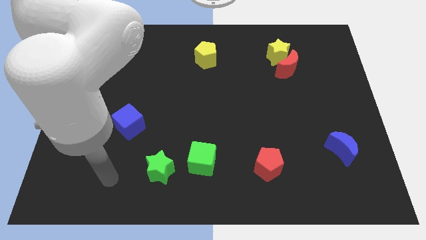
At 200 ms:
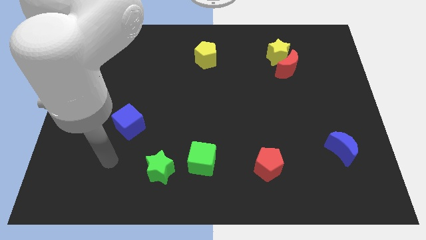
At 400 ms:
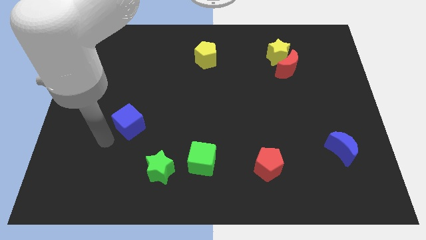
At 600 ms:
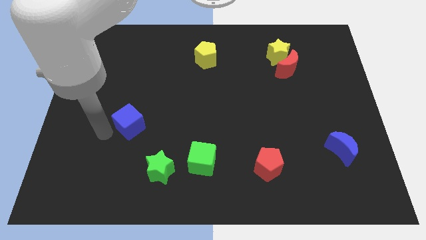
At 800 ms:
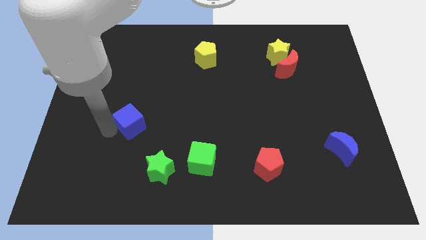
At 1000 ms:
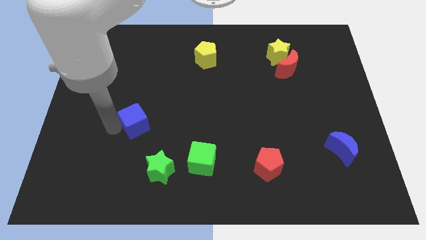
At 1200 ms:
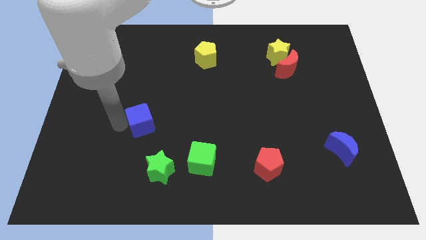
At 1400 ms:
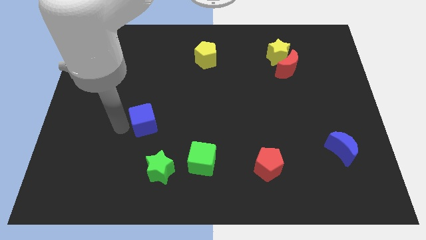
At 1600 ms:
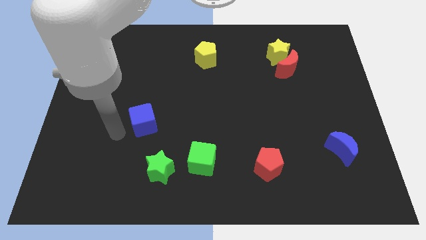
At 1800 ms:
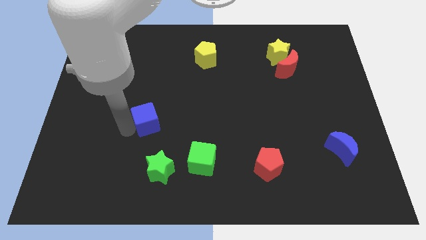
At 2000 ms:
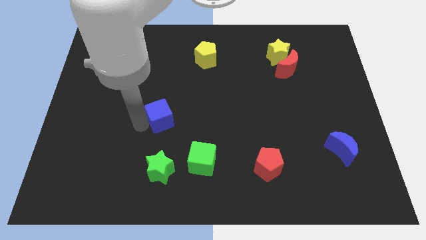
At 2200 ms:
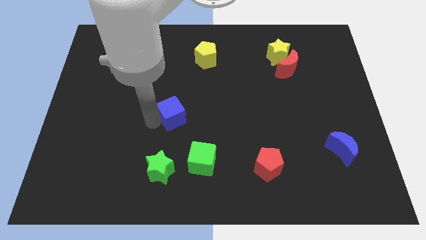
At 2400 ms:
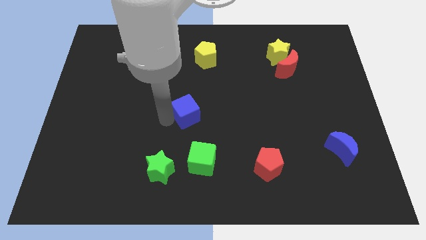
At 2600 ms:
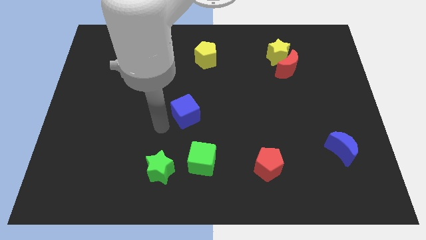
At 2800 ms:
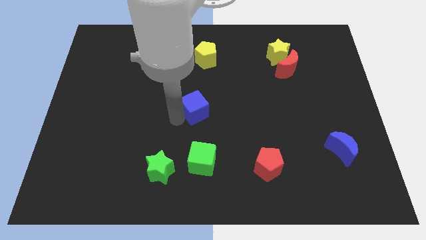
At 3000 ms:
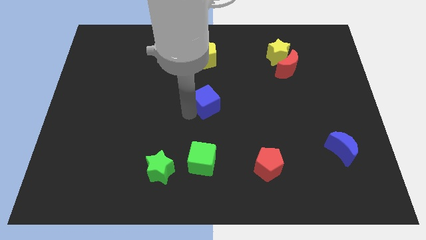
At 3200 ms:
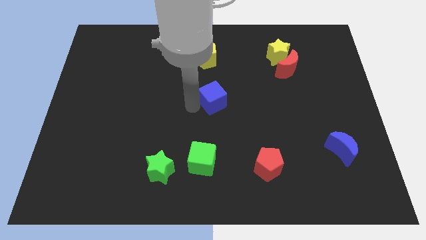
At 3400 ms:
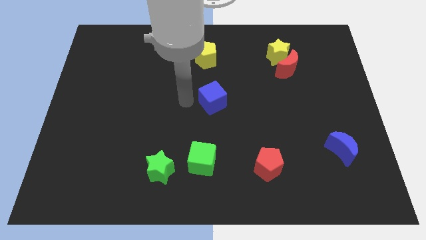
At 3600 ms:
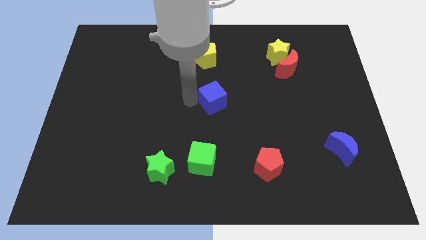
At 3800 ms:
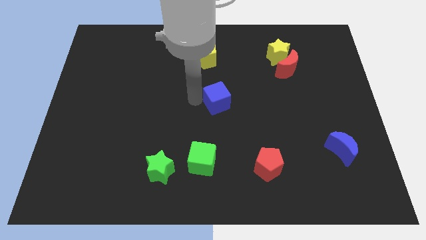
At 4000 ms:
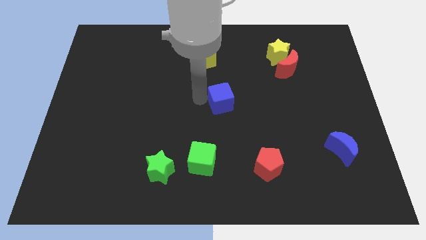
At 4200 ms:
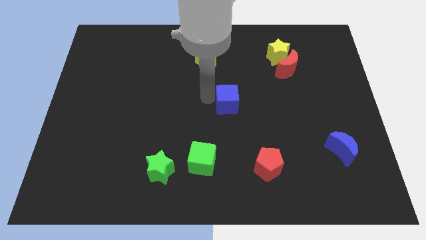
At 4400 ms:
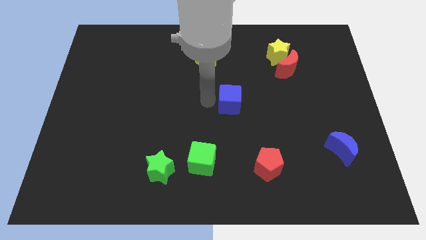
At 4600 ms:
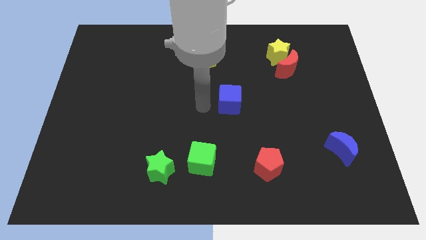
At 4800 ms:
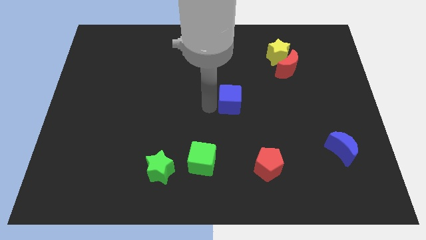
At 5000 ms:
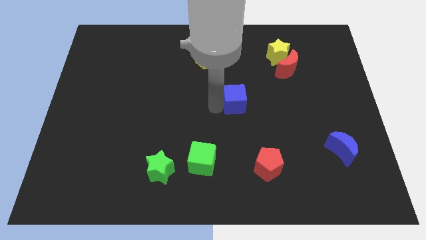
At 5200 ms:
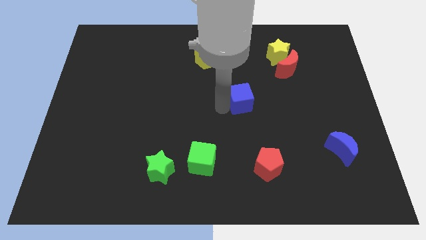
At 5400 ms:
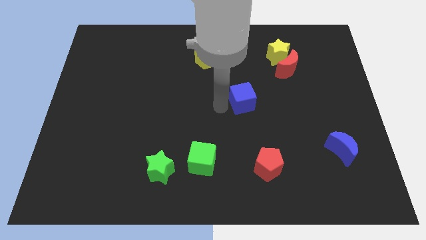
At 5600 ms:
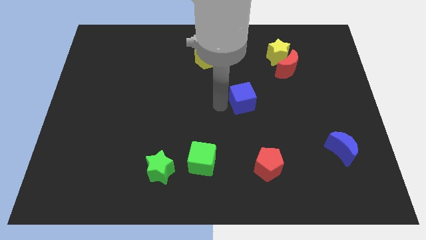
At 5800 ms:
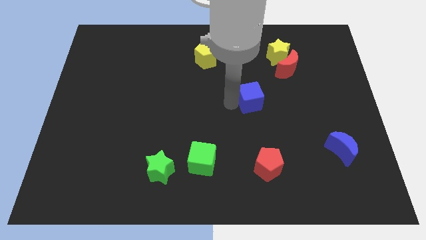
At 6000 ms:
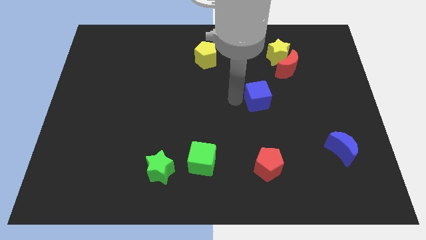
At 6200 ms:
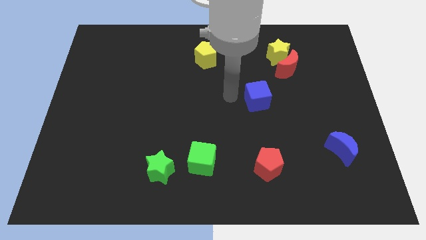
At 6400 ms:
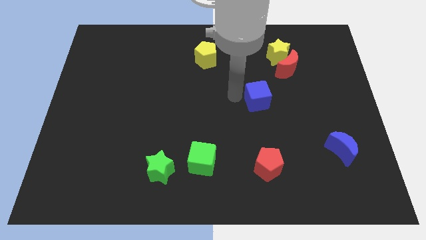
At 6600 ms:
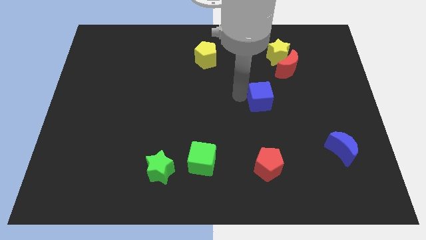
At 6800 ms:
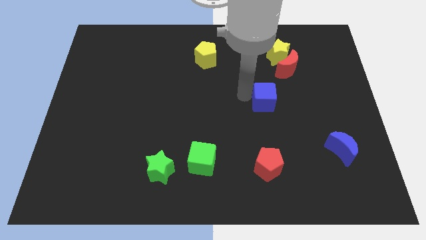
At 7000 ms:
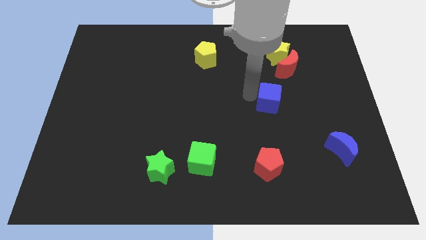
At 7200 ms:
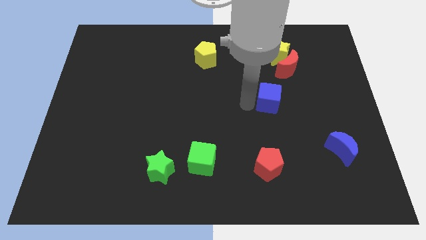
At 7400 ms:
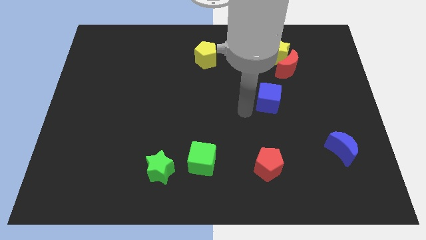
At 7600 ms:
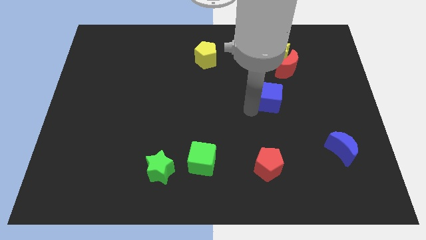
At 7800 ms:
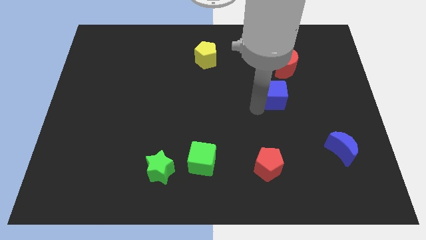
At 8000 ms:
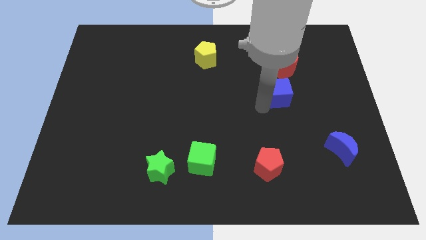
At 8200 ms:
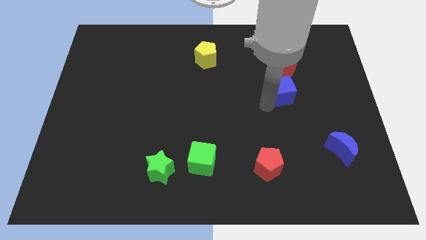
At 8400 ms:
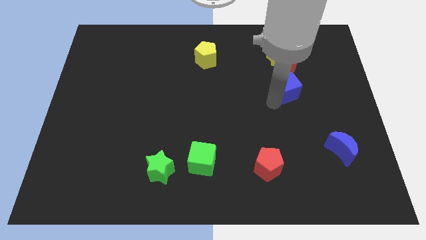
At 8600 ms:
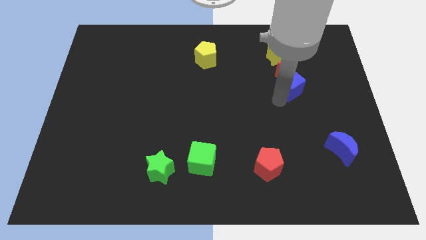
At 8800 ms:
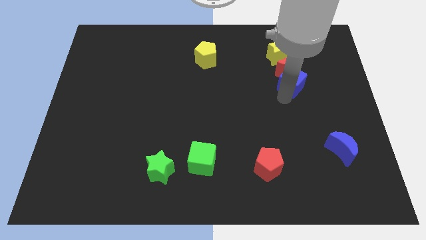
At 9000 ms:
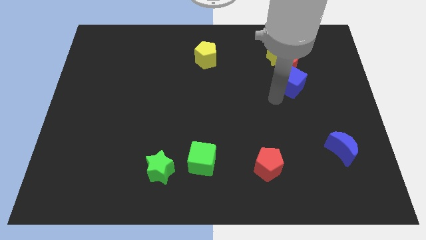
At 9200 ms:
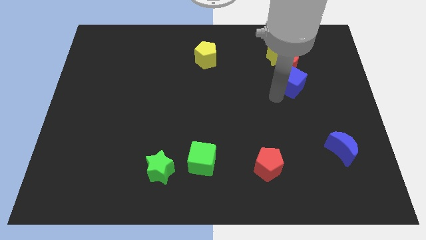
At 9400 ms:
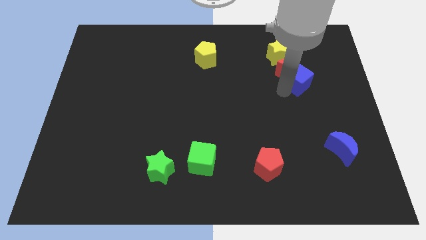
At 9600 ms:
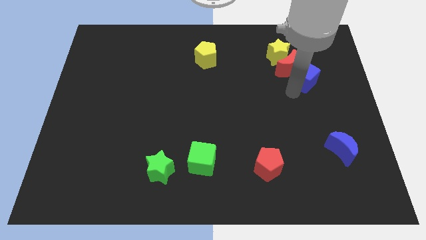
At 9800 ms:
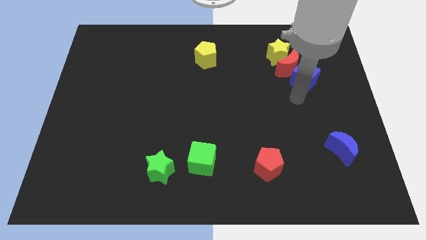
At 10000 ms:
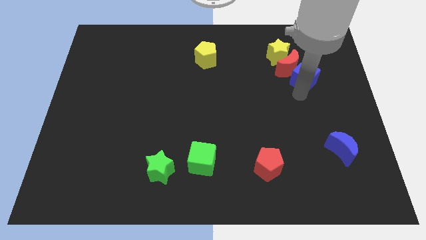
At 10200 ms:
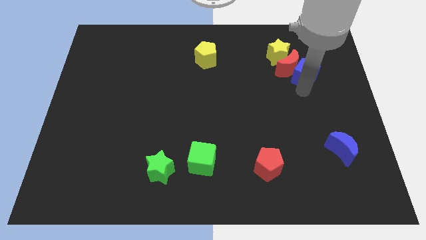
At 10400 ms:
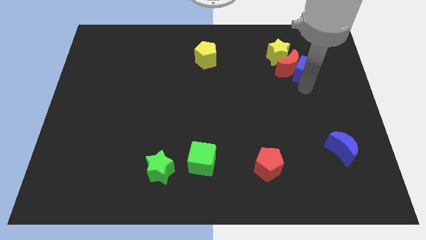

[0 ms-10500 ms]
push the blue cube to the top right of the red moon

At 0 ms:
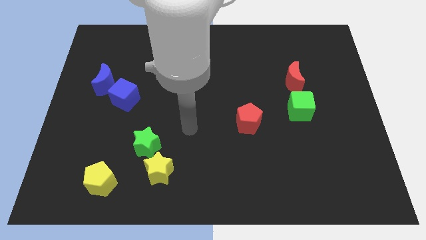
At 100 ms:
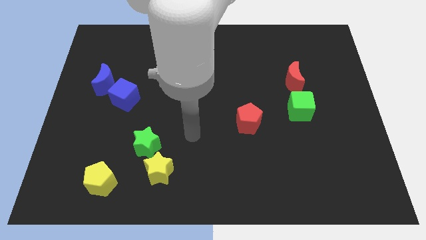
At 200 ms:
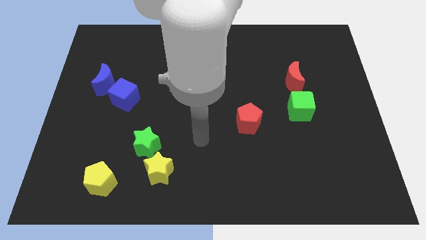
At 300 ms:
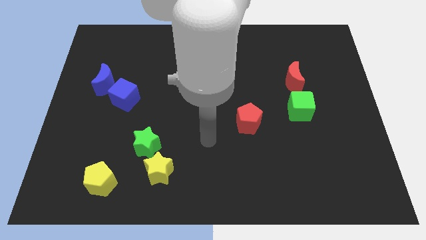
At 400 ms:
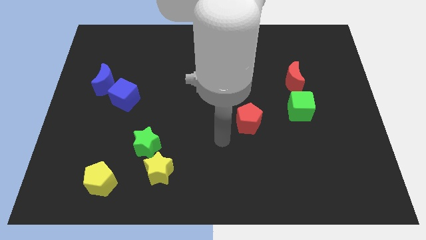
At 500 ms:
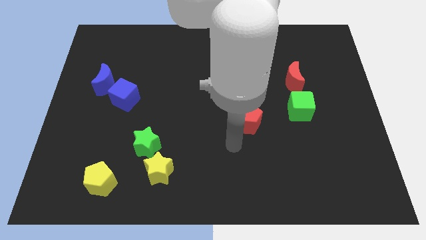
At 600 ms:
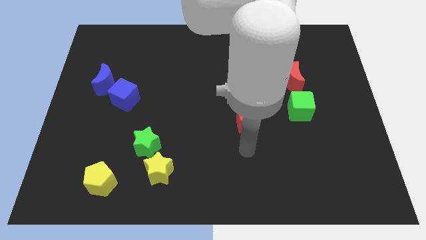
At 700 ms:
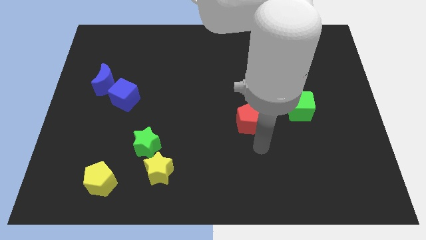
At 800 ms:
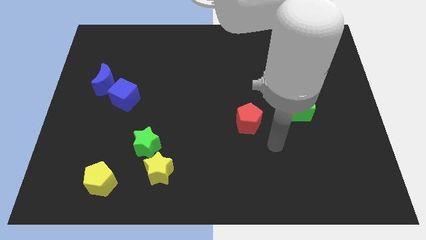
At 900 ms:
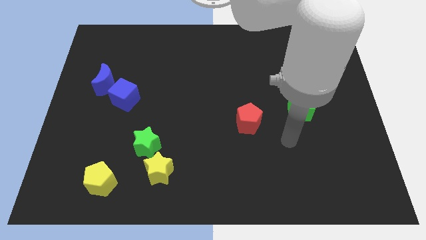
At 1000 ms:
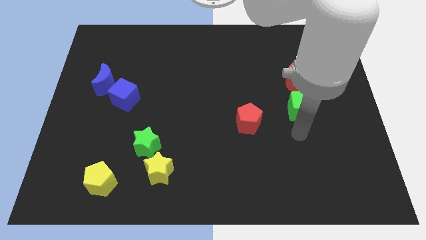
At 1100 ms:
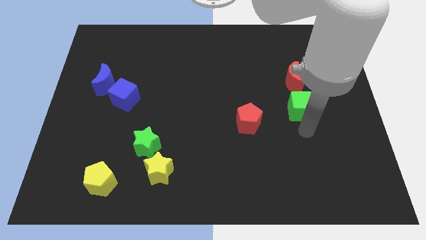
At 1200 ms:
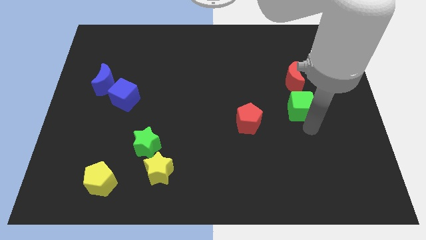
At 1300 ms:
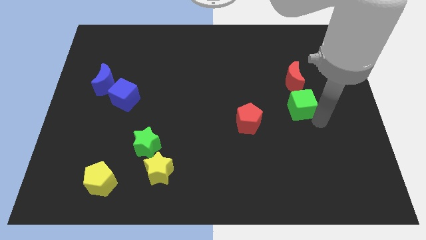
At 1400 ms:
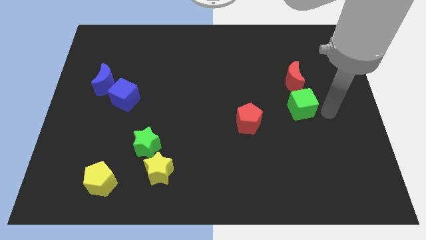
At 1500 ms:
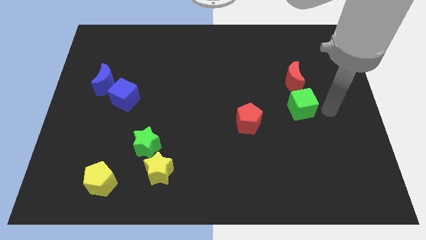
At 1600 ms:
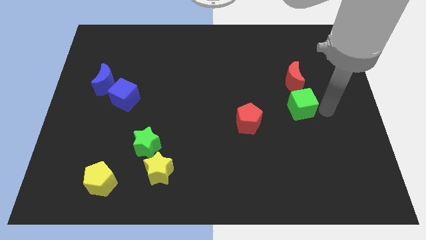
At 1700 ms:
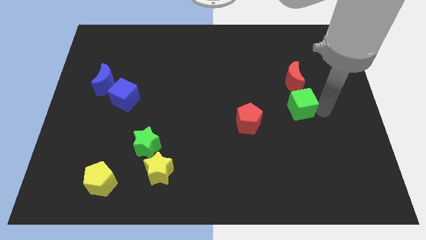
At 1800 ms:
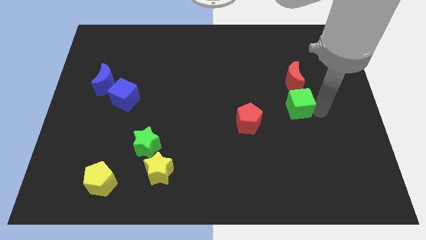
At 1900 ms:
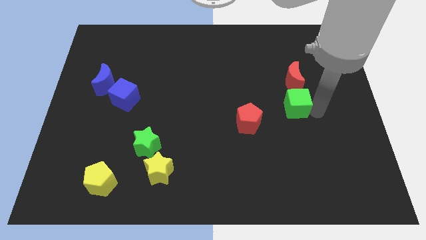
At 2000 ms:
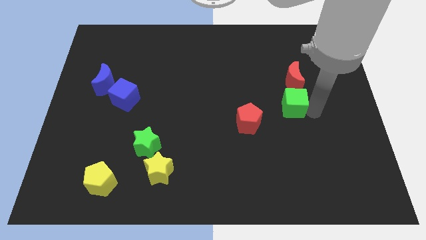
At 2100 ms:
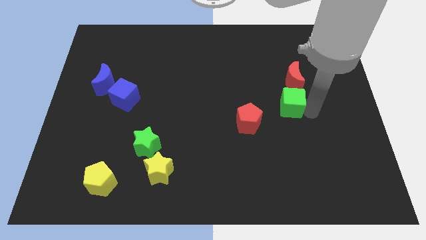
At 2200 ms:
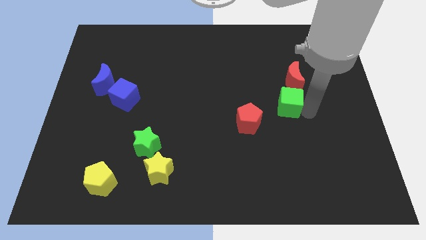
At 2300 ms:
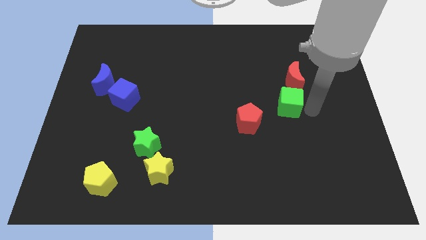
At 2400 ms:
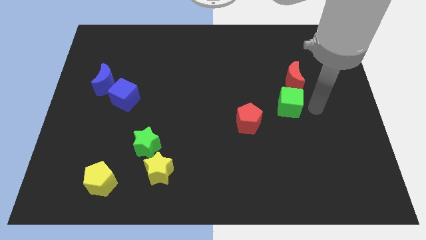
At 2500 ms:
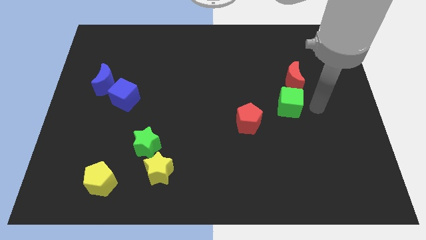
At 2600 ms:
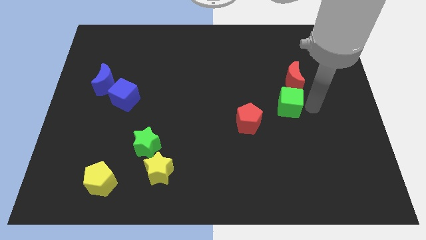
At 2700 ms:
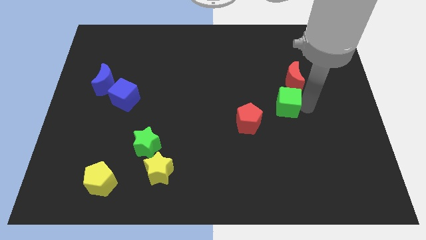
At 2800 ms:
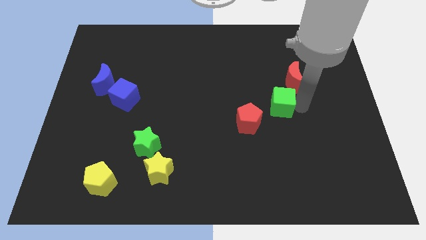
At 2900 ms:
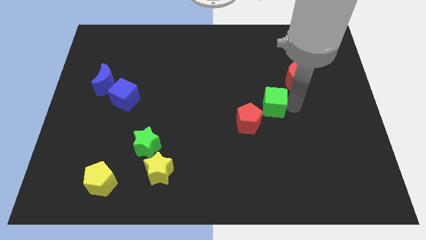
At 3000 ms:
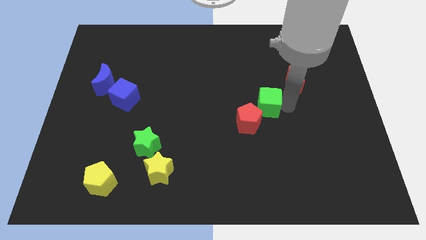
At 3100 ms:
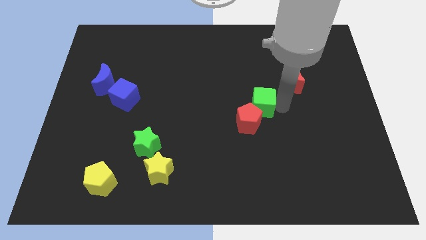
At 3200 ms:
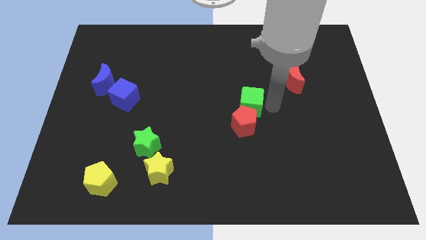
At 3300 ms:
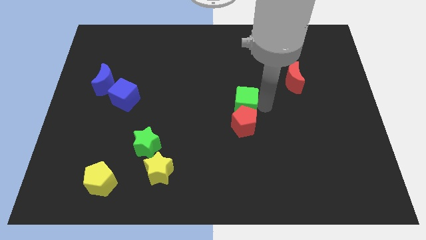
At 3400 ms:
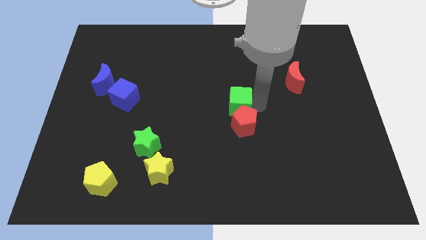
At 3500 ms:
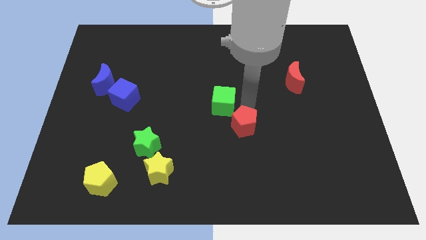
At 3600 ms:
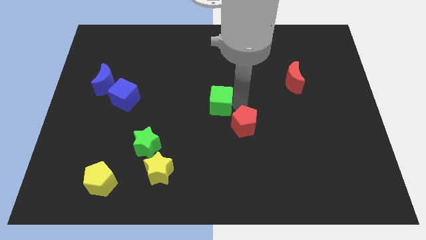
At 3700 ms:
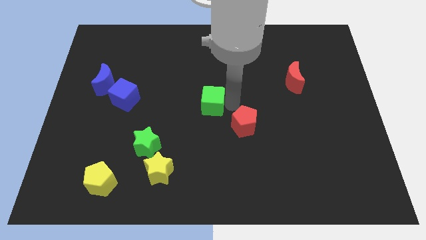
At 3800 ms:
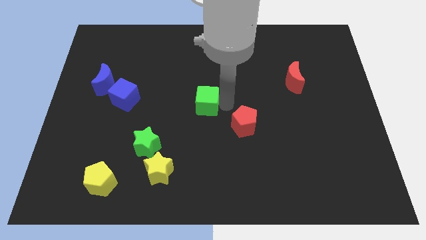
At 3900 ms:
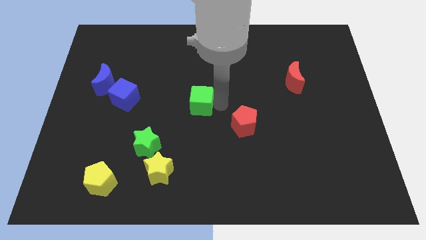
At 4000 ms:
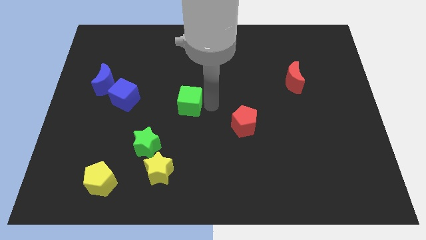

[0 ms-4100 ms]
put the green cube just right of the blue cube
